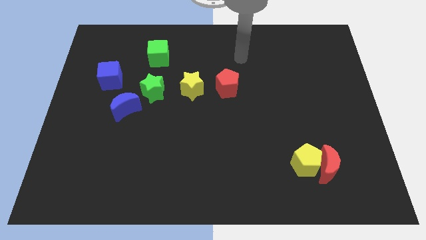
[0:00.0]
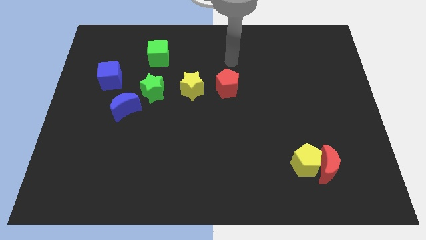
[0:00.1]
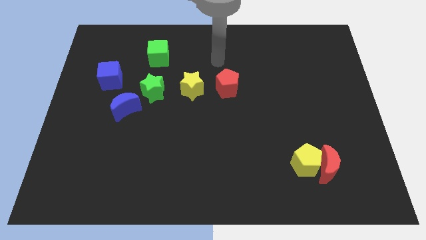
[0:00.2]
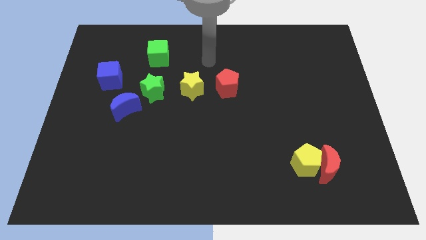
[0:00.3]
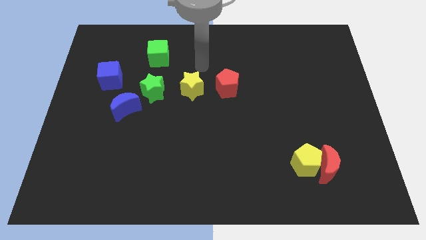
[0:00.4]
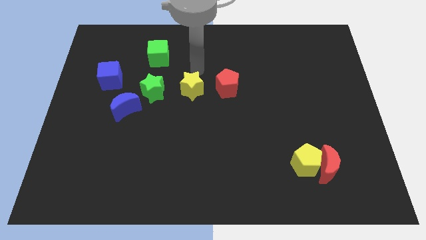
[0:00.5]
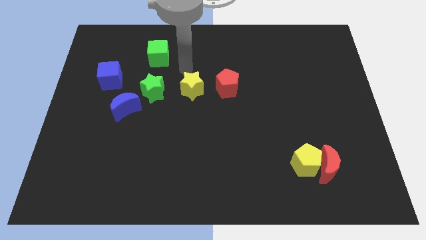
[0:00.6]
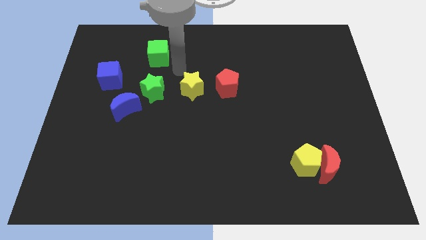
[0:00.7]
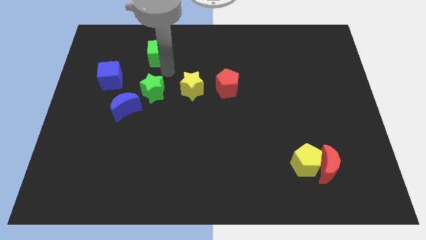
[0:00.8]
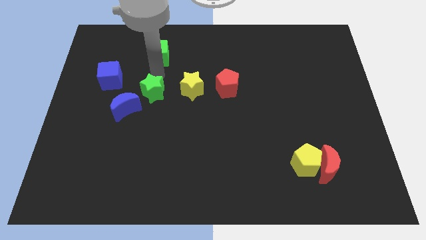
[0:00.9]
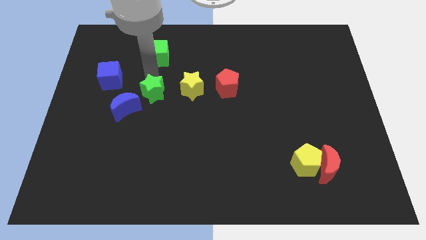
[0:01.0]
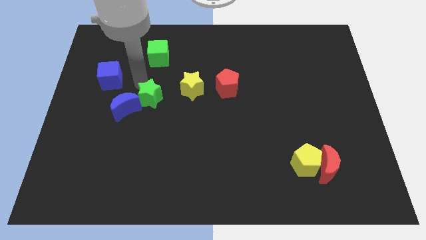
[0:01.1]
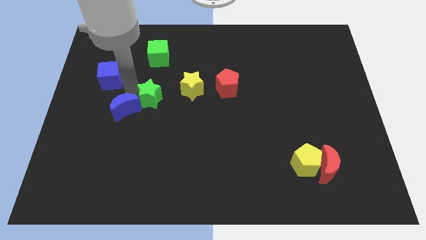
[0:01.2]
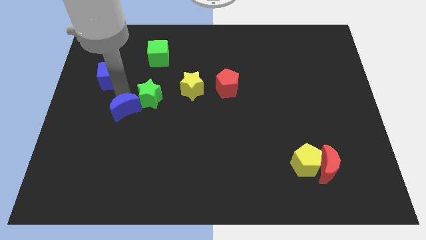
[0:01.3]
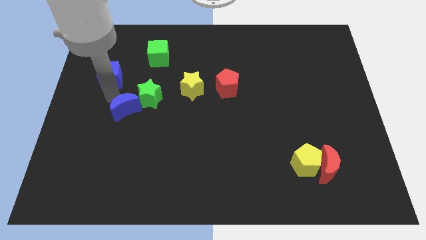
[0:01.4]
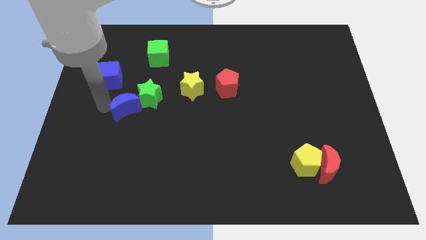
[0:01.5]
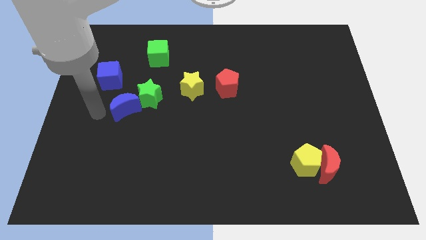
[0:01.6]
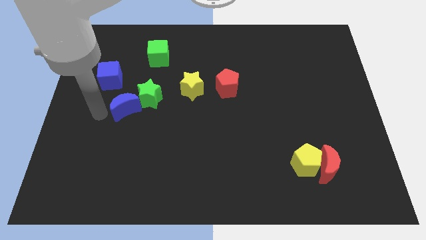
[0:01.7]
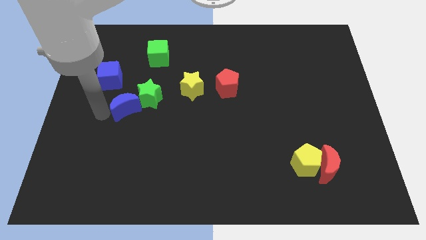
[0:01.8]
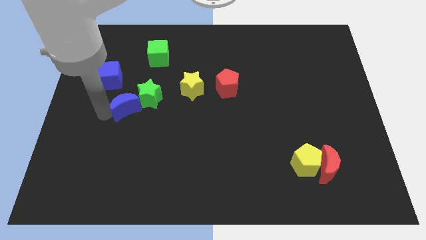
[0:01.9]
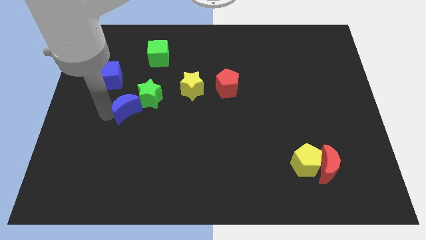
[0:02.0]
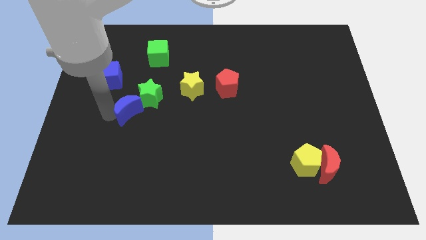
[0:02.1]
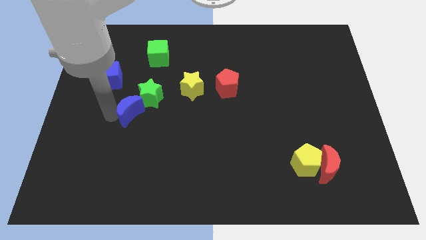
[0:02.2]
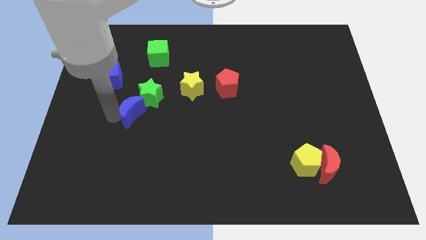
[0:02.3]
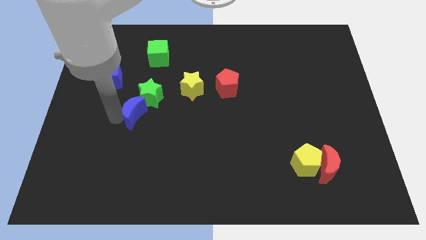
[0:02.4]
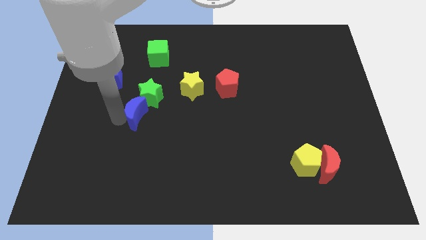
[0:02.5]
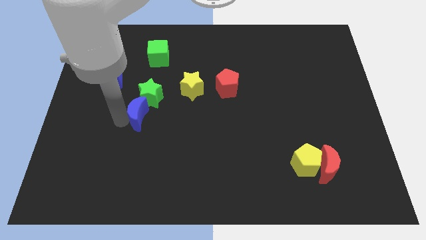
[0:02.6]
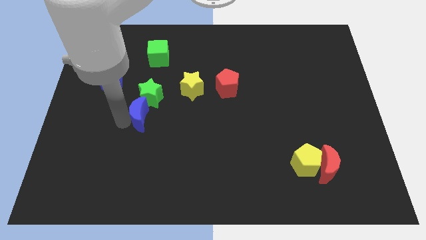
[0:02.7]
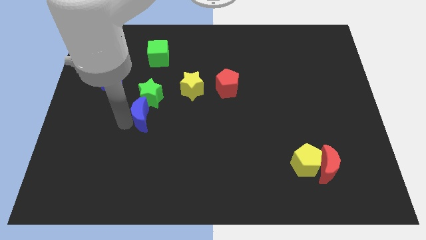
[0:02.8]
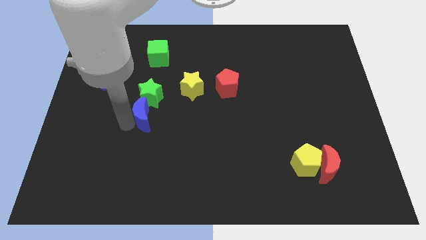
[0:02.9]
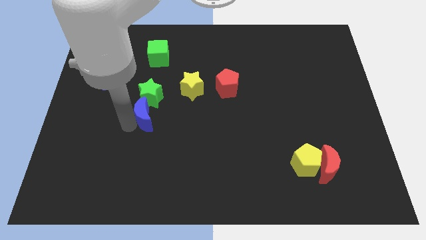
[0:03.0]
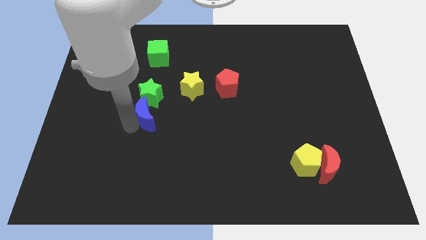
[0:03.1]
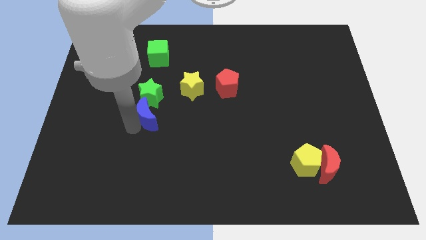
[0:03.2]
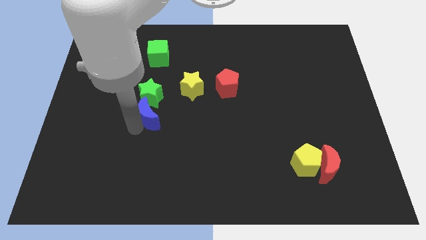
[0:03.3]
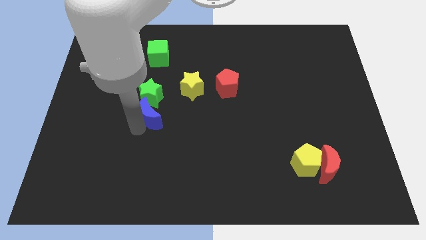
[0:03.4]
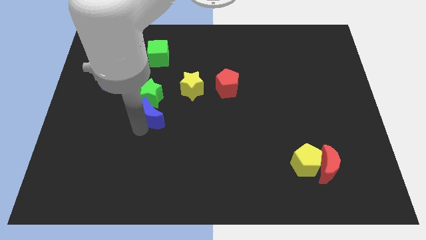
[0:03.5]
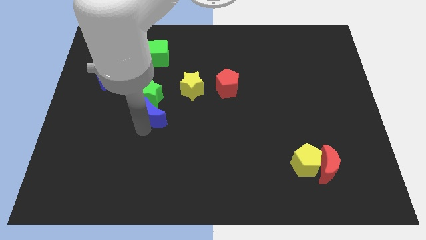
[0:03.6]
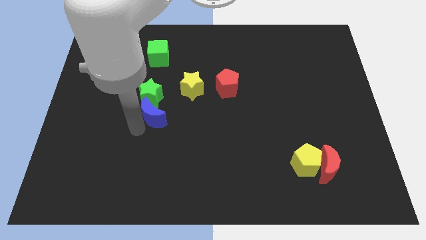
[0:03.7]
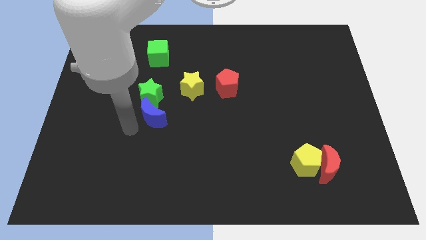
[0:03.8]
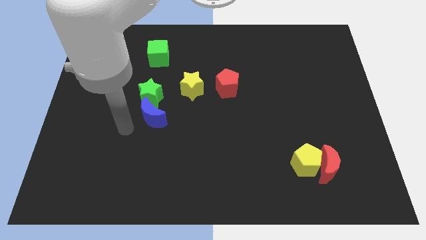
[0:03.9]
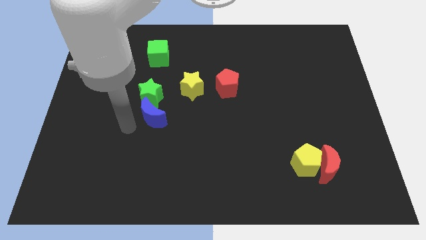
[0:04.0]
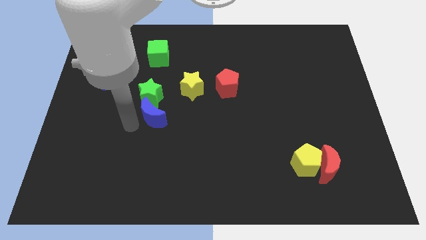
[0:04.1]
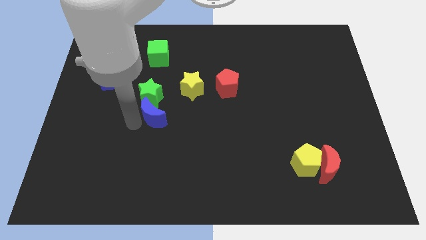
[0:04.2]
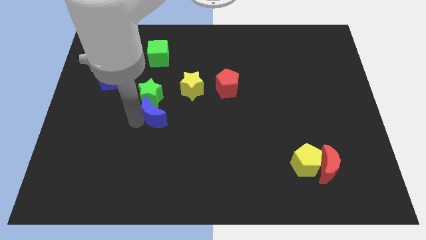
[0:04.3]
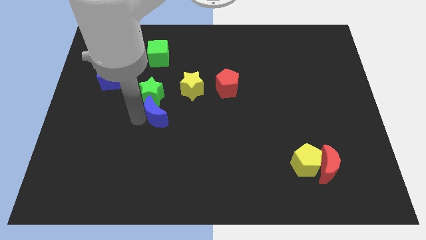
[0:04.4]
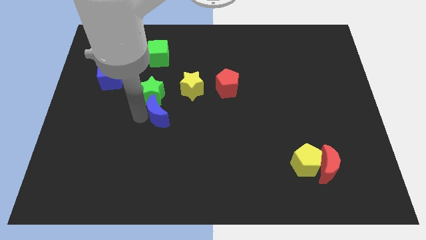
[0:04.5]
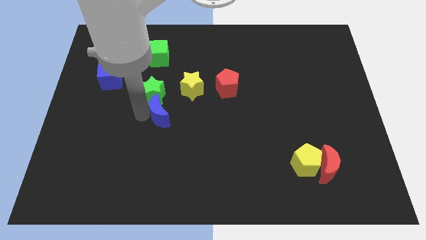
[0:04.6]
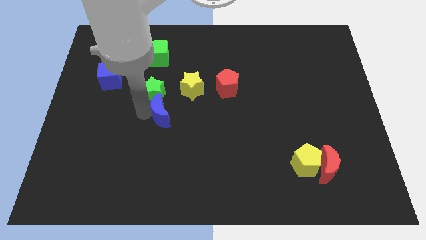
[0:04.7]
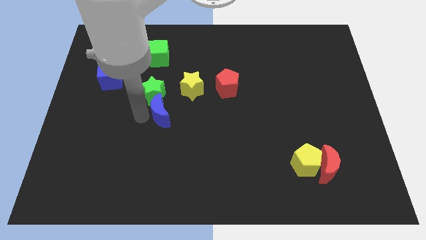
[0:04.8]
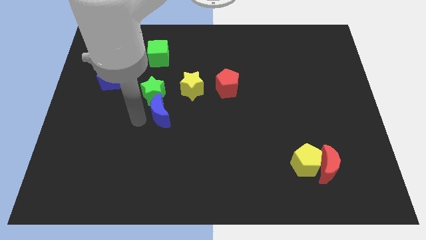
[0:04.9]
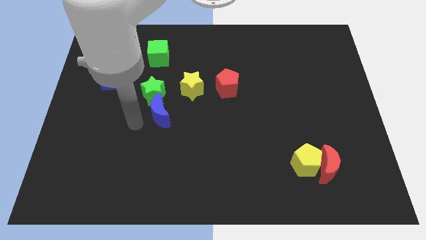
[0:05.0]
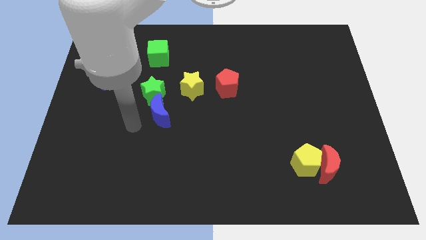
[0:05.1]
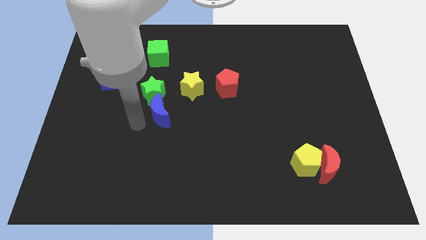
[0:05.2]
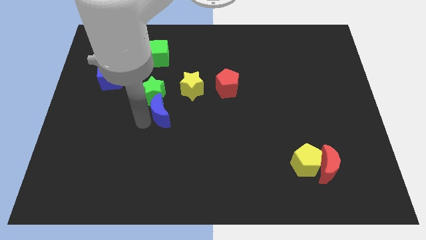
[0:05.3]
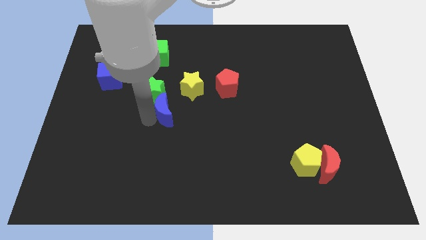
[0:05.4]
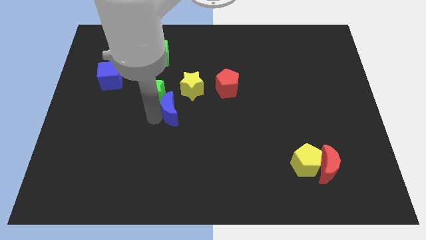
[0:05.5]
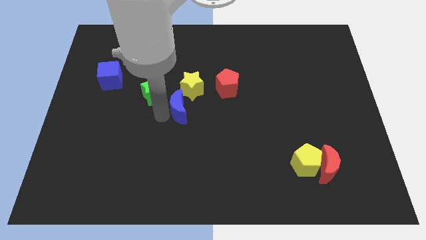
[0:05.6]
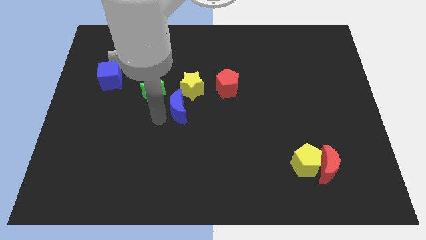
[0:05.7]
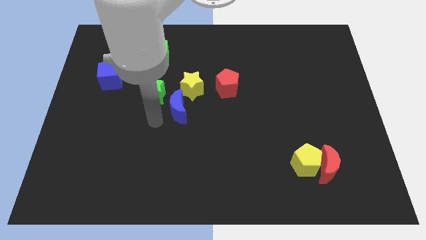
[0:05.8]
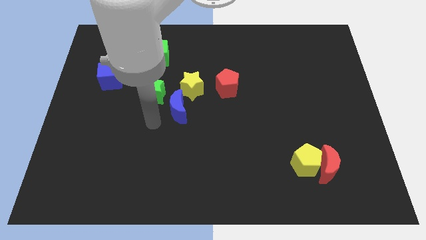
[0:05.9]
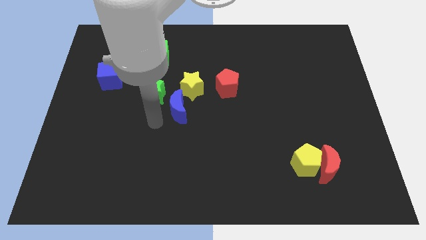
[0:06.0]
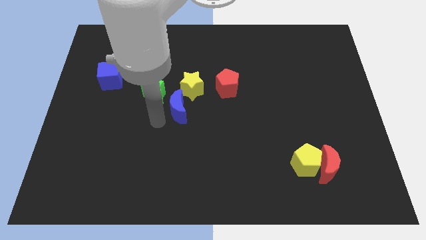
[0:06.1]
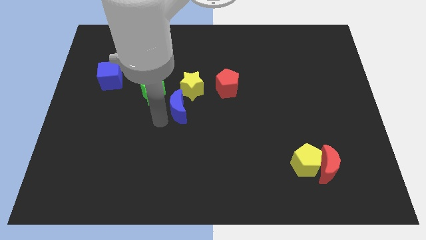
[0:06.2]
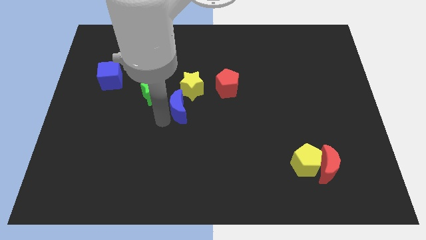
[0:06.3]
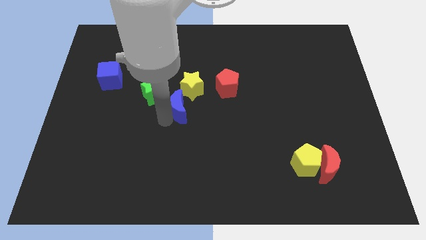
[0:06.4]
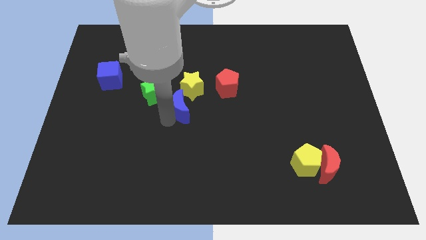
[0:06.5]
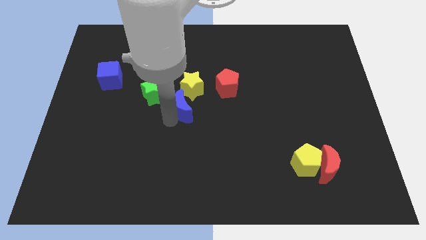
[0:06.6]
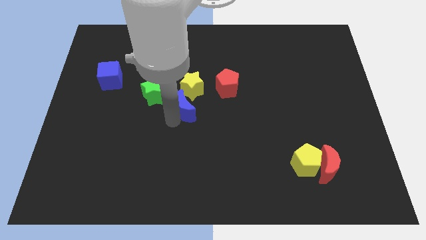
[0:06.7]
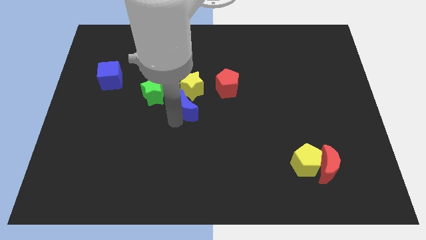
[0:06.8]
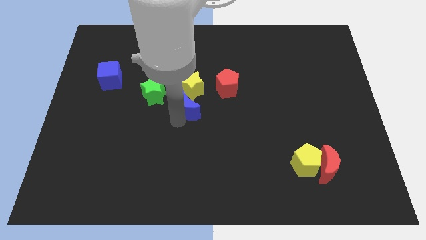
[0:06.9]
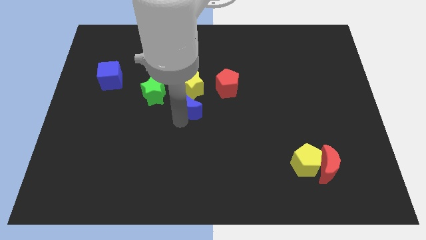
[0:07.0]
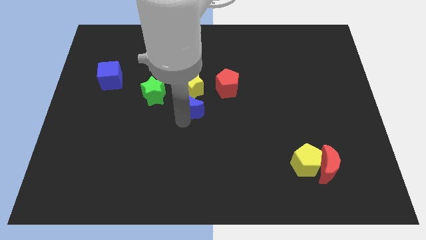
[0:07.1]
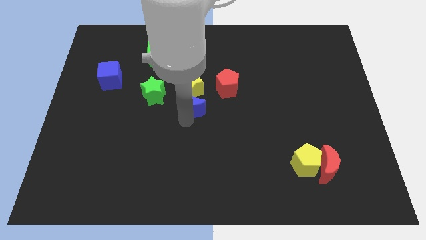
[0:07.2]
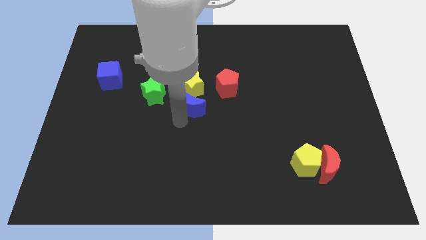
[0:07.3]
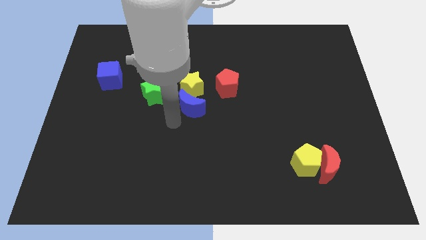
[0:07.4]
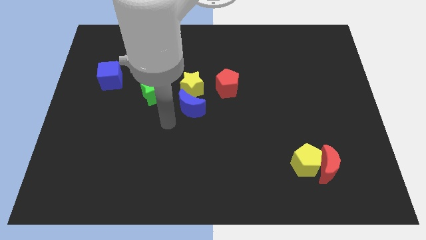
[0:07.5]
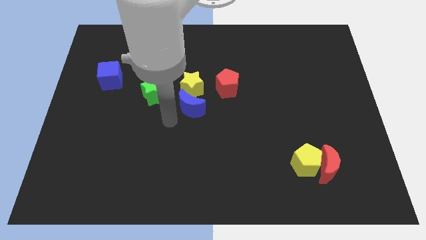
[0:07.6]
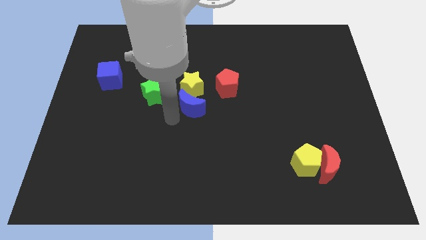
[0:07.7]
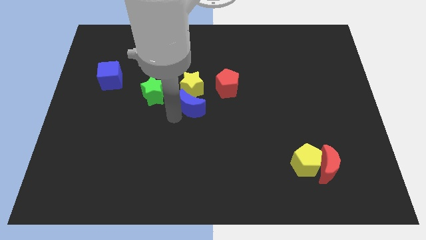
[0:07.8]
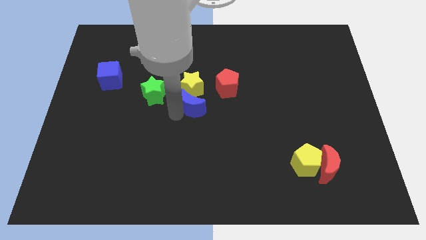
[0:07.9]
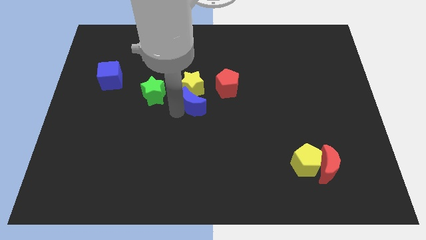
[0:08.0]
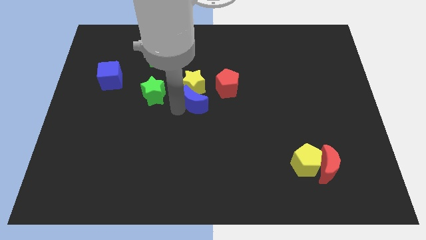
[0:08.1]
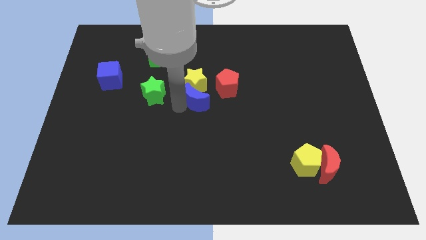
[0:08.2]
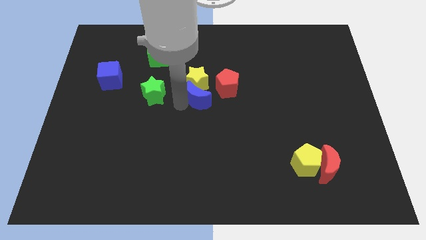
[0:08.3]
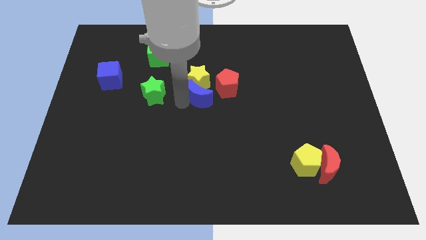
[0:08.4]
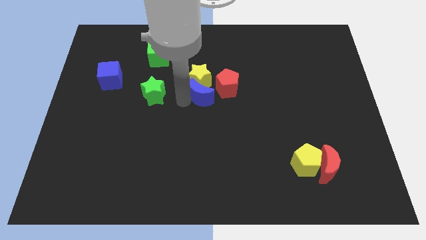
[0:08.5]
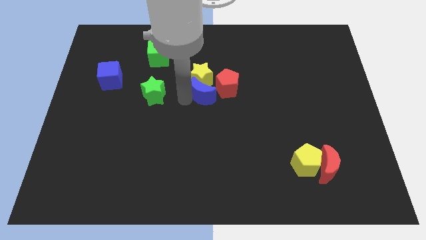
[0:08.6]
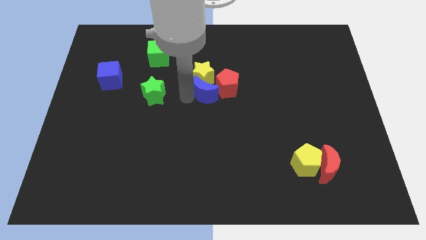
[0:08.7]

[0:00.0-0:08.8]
push the blue moon close to the red pentagon
